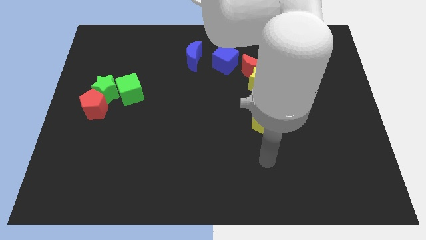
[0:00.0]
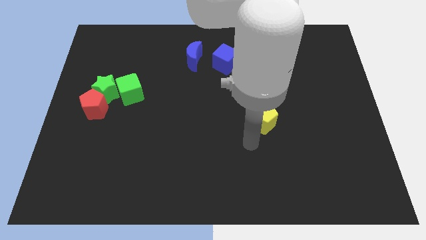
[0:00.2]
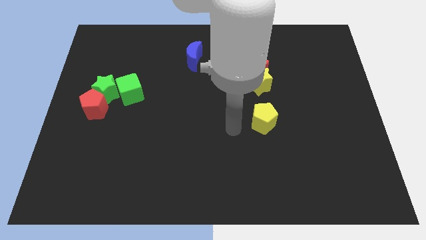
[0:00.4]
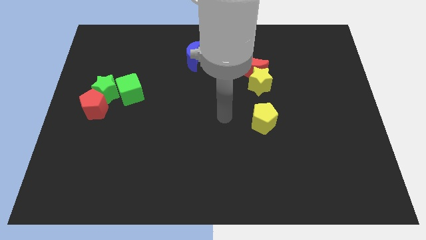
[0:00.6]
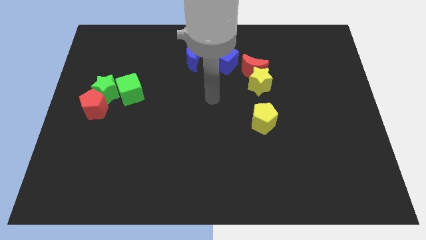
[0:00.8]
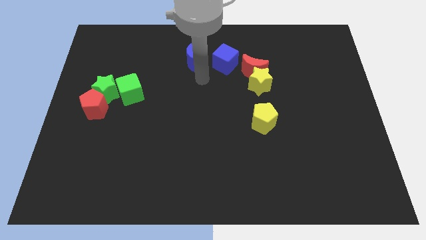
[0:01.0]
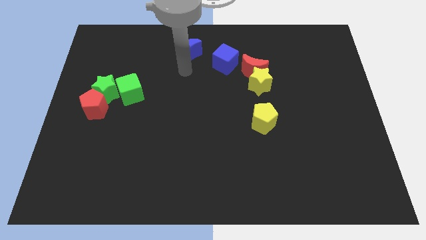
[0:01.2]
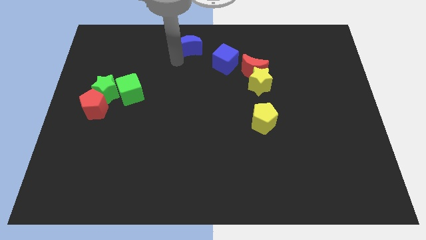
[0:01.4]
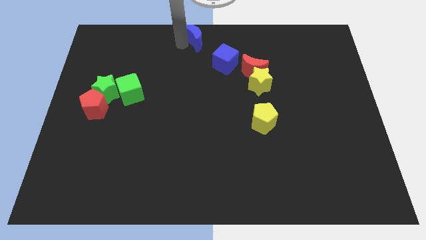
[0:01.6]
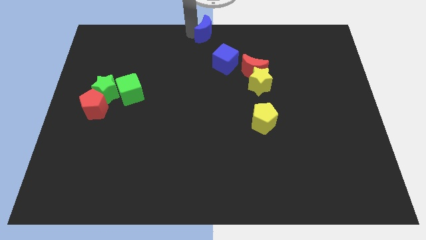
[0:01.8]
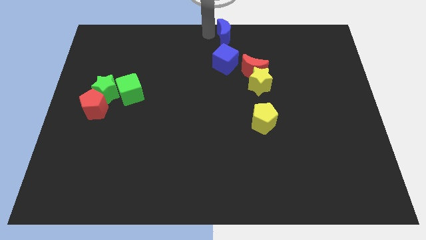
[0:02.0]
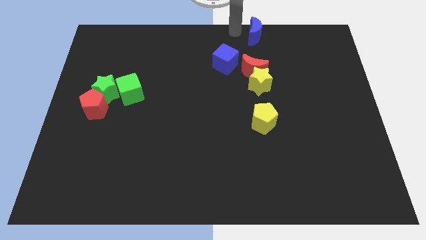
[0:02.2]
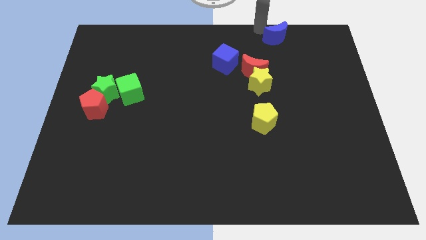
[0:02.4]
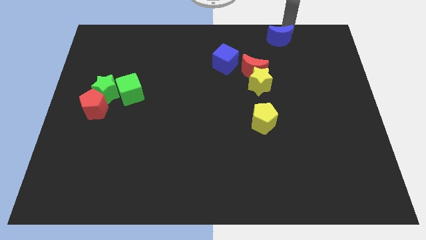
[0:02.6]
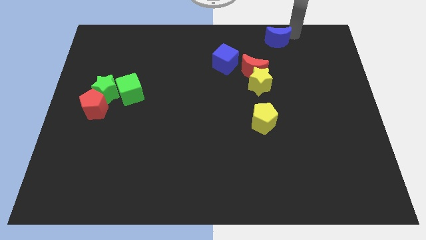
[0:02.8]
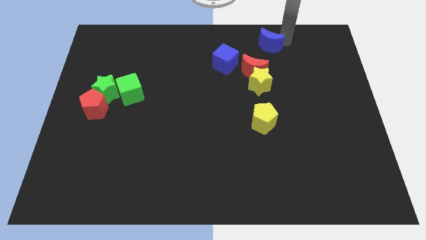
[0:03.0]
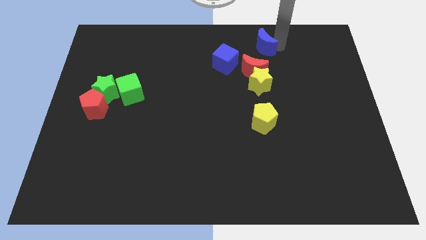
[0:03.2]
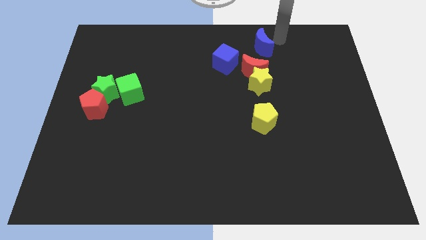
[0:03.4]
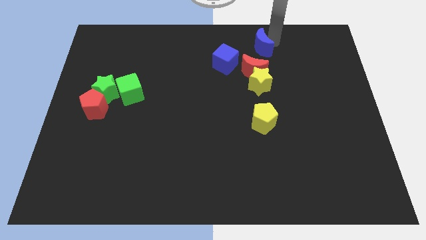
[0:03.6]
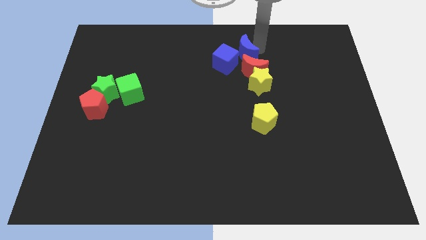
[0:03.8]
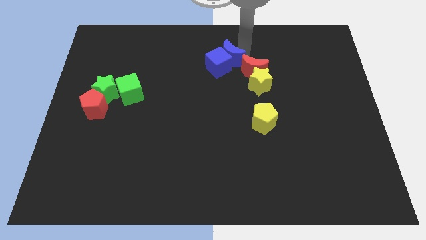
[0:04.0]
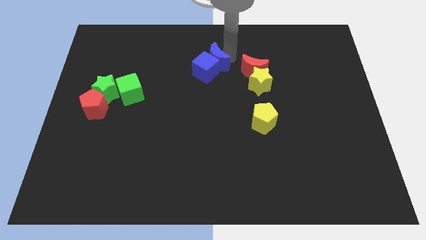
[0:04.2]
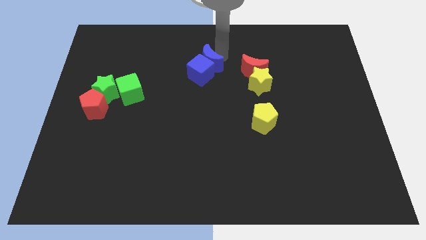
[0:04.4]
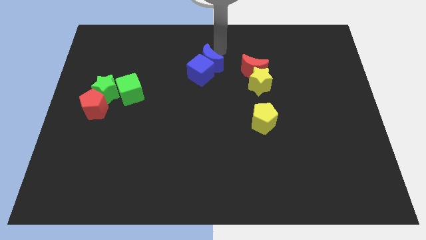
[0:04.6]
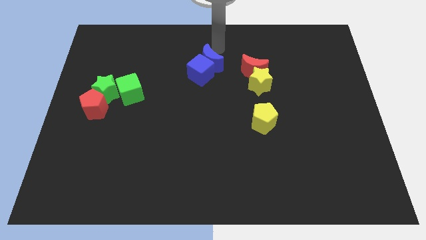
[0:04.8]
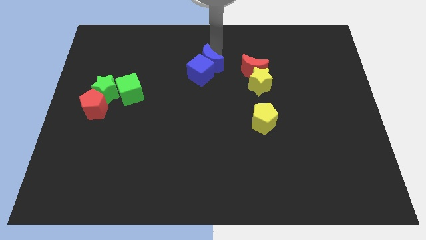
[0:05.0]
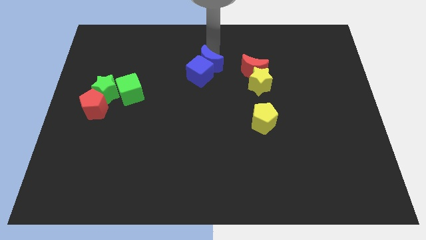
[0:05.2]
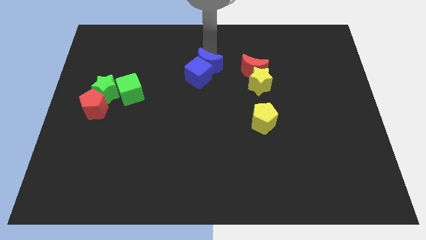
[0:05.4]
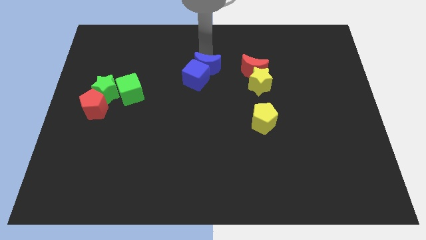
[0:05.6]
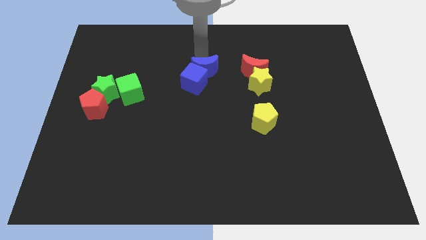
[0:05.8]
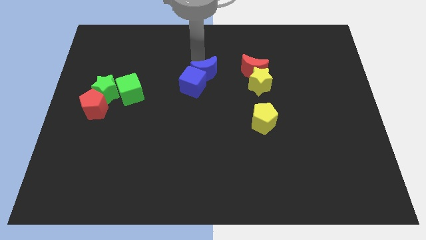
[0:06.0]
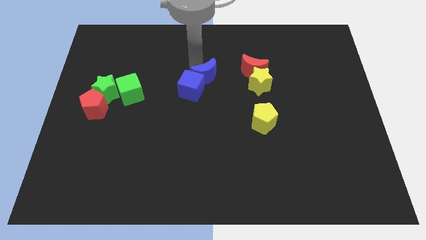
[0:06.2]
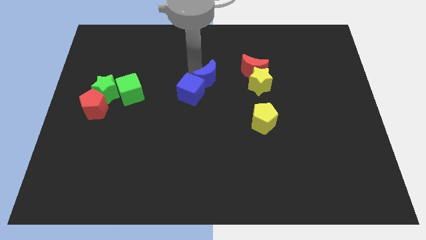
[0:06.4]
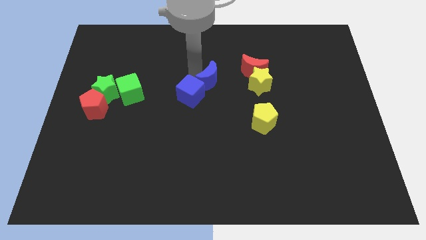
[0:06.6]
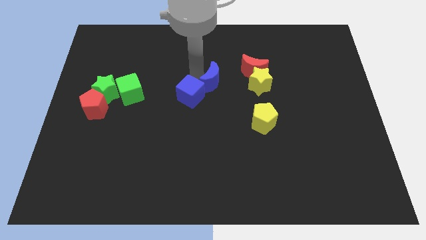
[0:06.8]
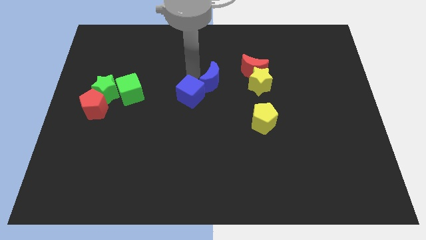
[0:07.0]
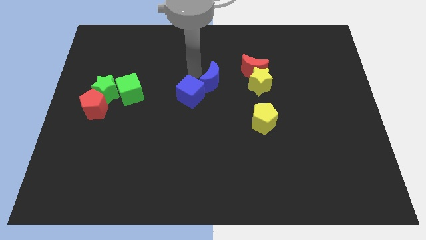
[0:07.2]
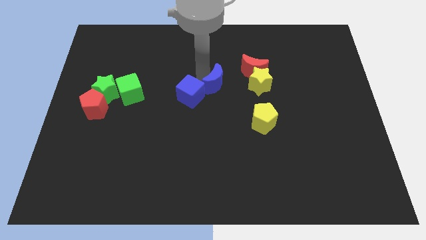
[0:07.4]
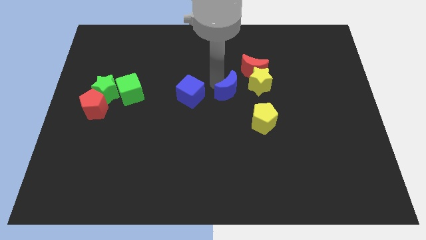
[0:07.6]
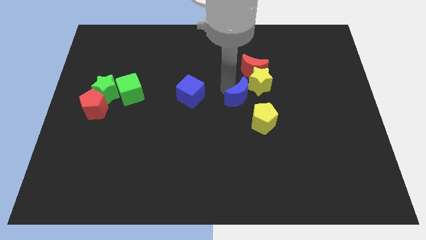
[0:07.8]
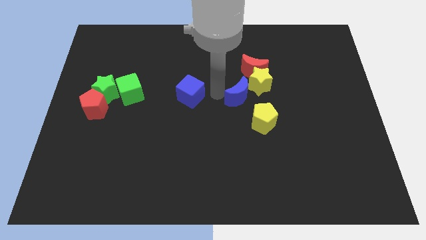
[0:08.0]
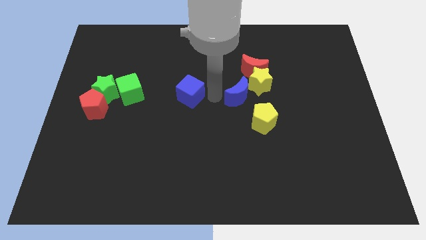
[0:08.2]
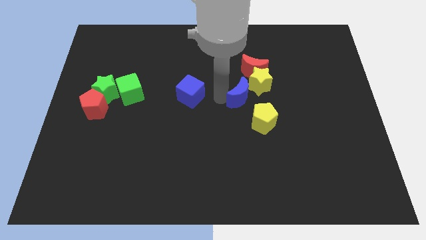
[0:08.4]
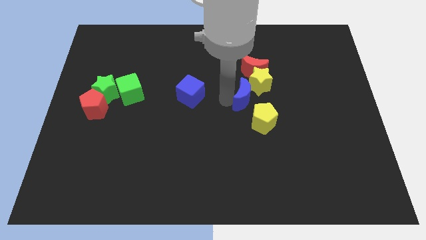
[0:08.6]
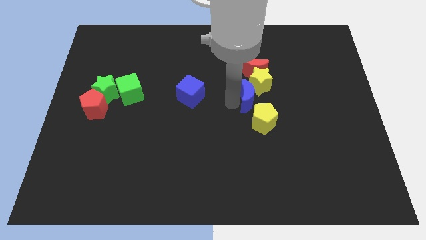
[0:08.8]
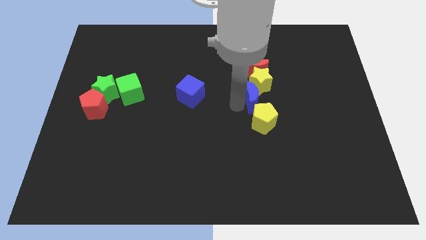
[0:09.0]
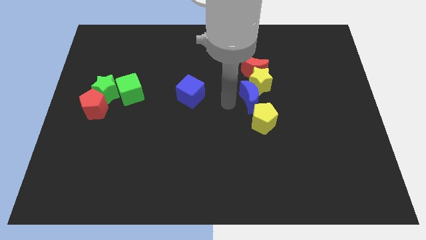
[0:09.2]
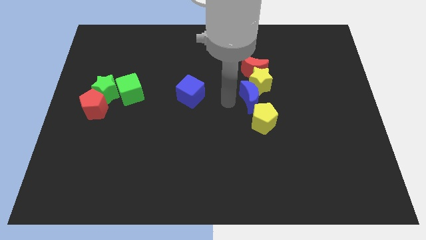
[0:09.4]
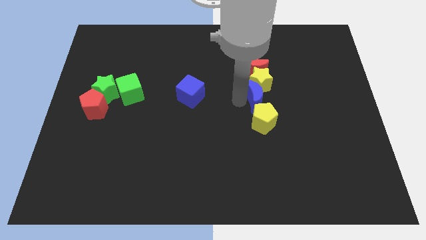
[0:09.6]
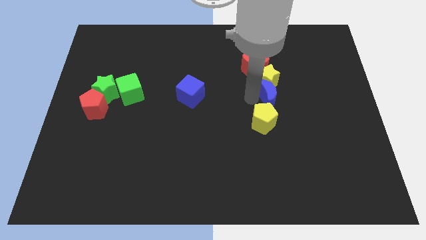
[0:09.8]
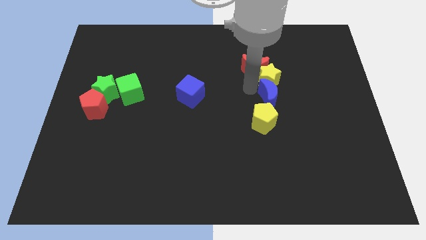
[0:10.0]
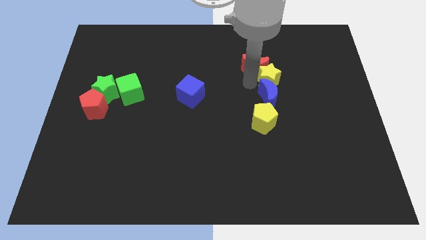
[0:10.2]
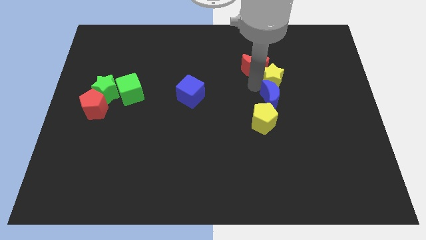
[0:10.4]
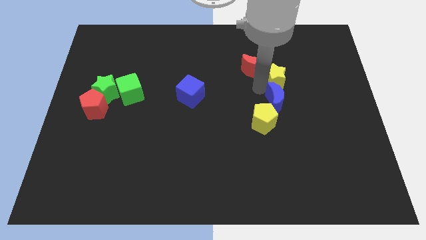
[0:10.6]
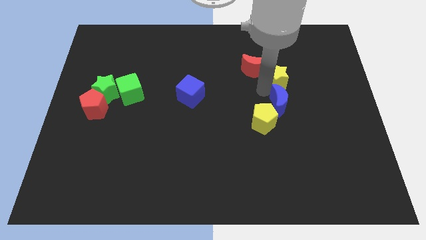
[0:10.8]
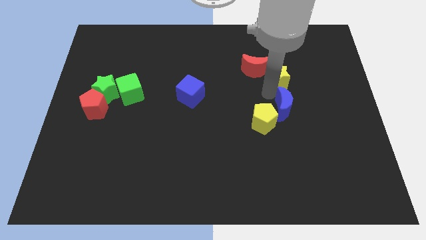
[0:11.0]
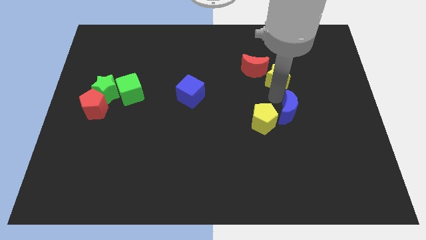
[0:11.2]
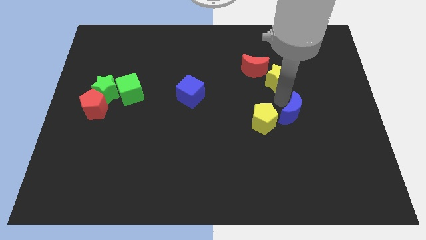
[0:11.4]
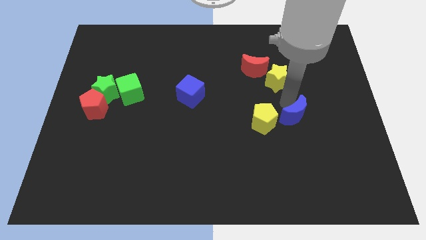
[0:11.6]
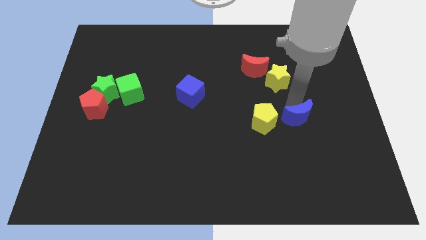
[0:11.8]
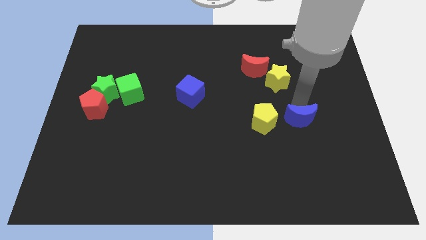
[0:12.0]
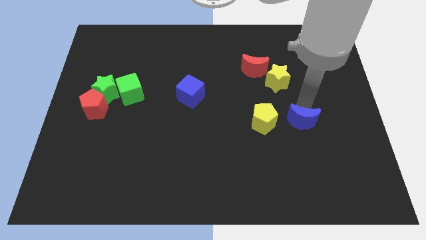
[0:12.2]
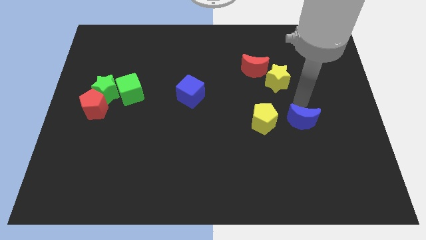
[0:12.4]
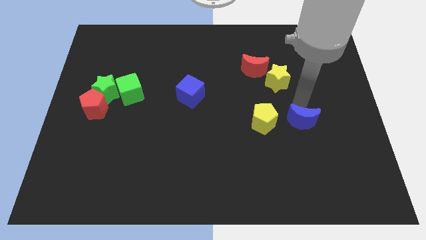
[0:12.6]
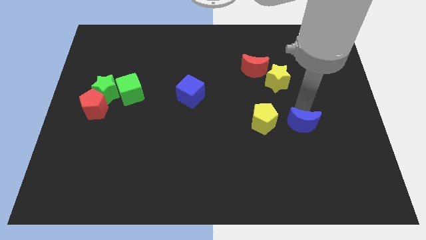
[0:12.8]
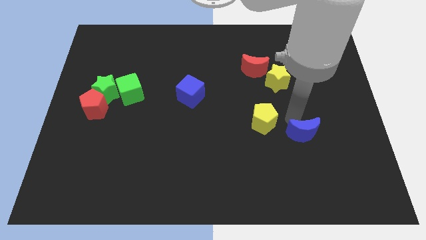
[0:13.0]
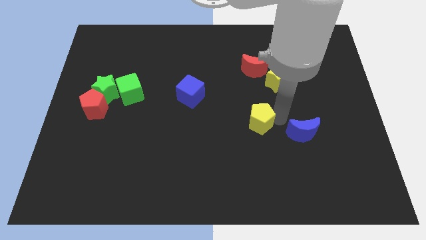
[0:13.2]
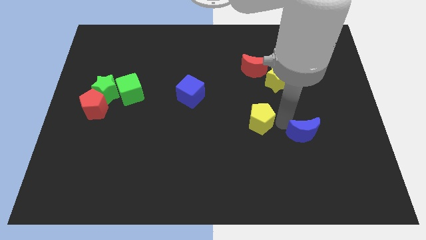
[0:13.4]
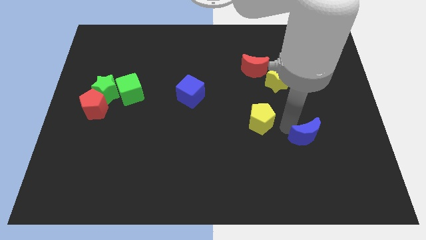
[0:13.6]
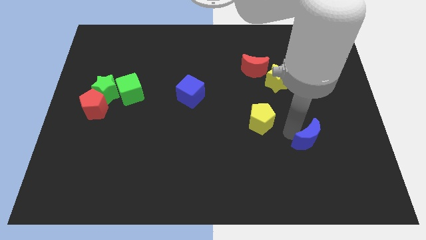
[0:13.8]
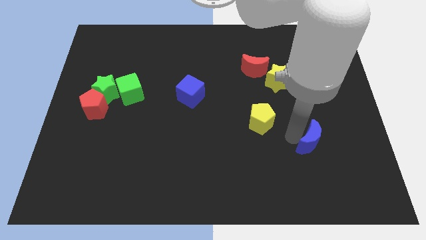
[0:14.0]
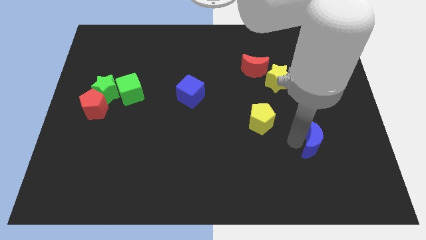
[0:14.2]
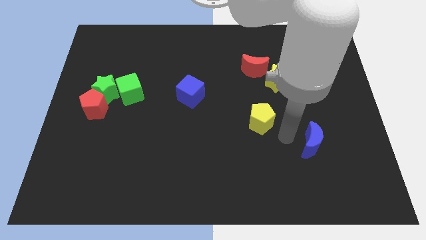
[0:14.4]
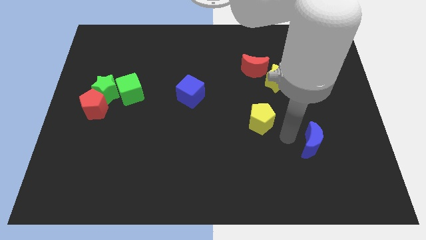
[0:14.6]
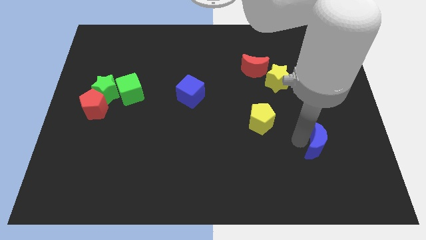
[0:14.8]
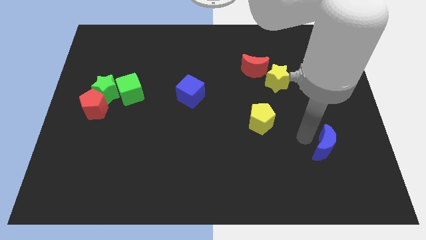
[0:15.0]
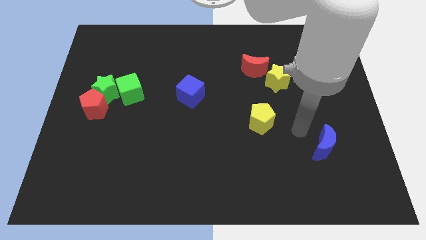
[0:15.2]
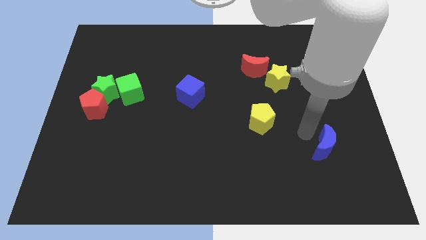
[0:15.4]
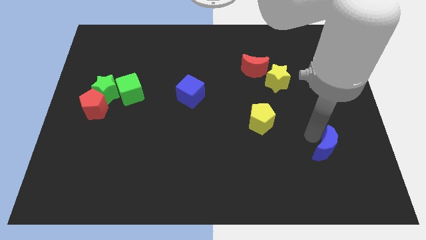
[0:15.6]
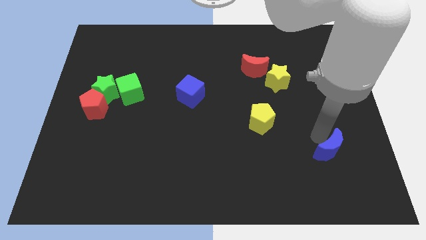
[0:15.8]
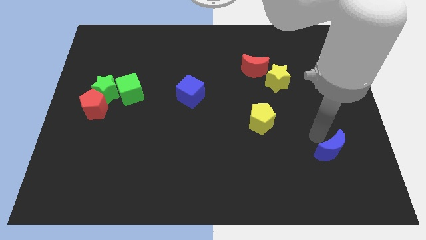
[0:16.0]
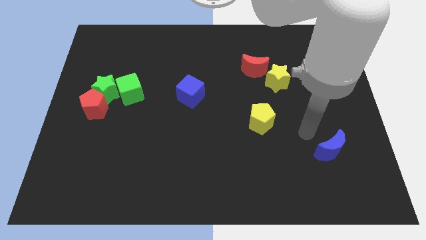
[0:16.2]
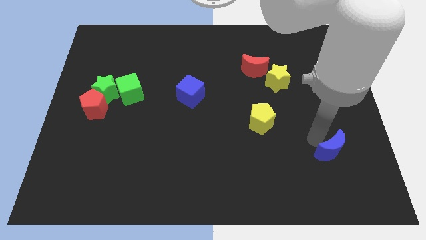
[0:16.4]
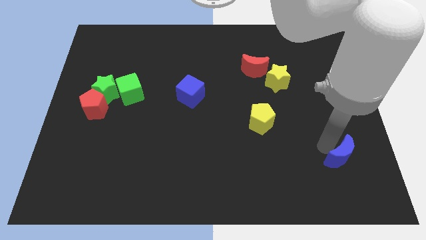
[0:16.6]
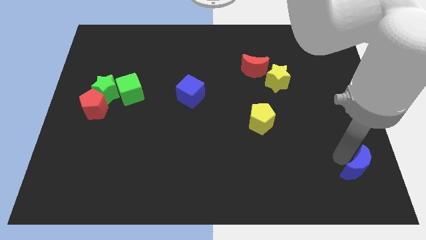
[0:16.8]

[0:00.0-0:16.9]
move the blue moon to the bottom right
